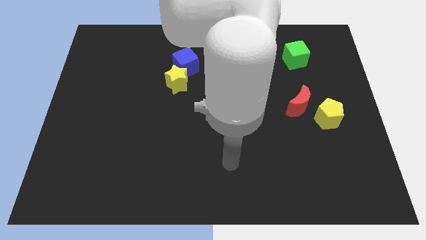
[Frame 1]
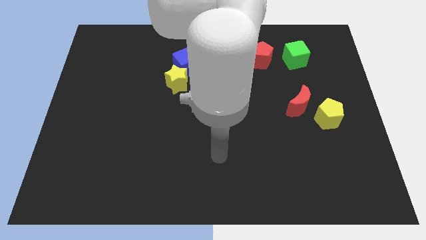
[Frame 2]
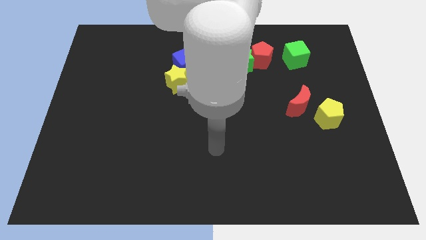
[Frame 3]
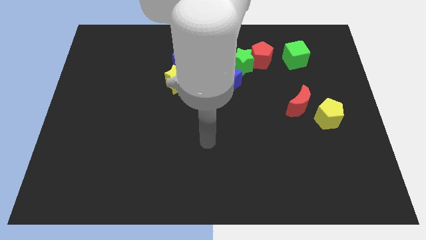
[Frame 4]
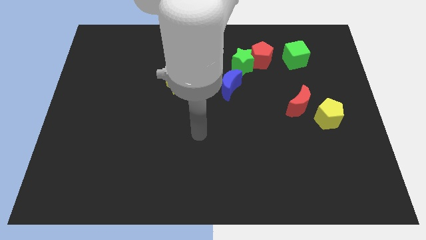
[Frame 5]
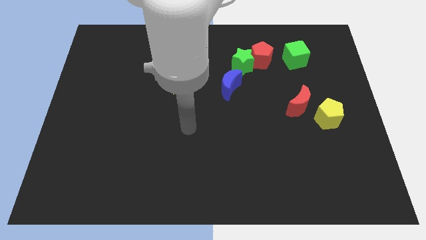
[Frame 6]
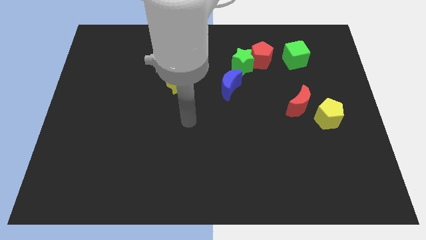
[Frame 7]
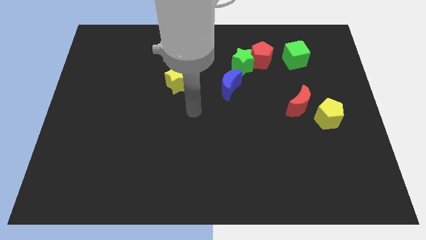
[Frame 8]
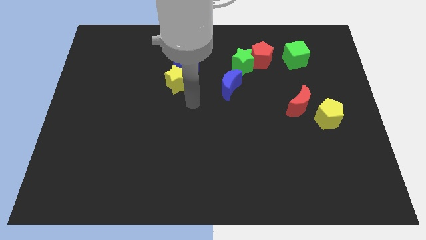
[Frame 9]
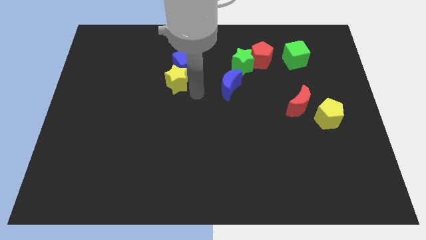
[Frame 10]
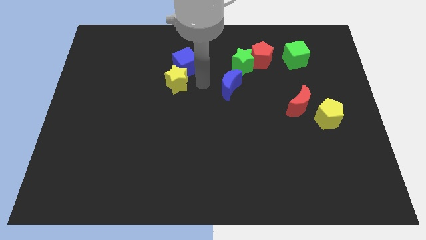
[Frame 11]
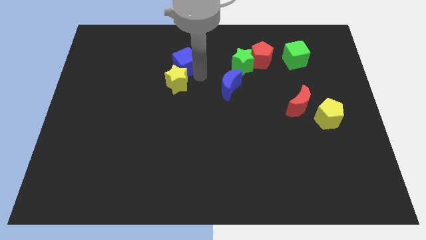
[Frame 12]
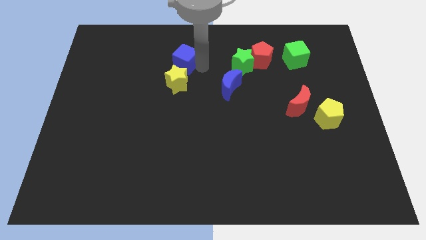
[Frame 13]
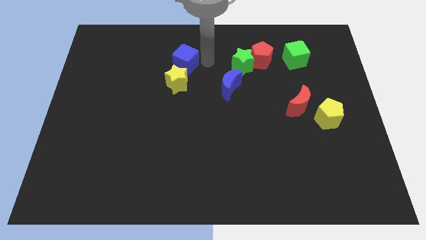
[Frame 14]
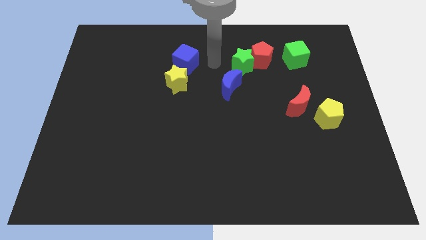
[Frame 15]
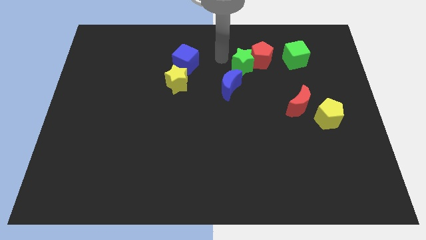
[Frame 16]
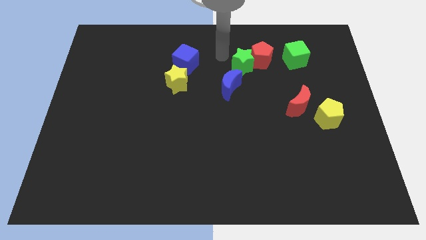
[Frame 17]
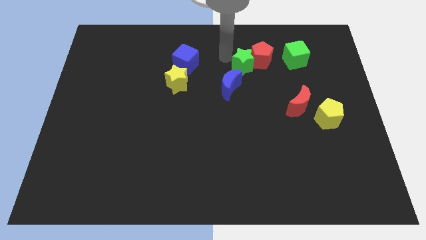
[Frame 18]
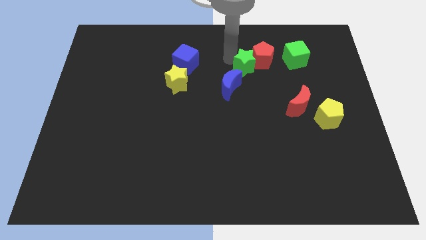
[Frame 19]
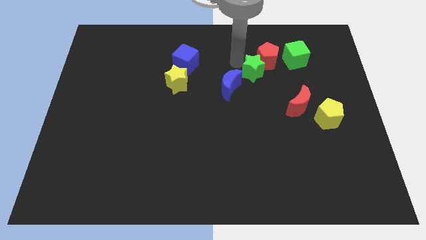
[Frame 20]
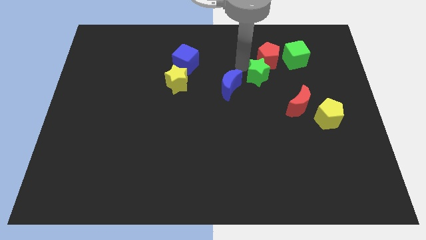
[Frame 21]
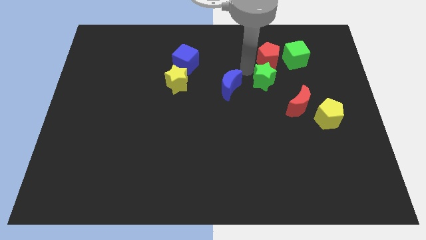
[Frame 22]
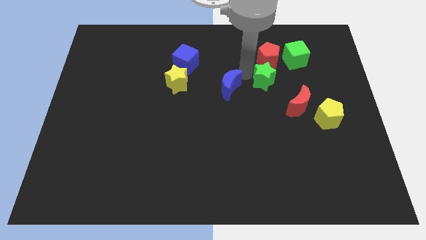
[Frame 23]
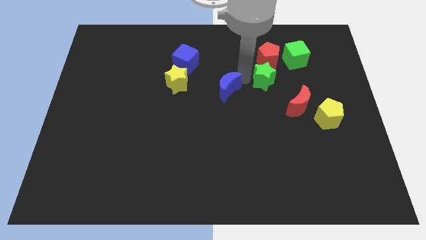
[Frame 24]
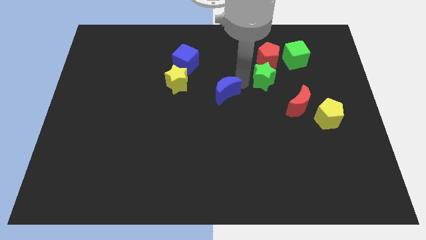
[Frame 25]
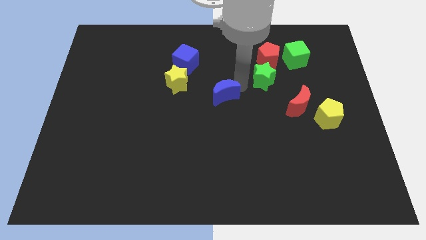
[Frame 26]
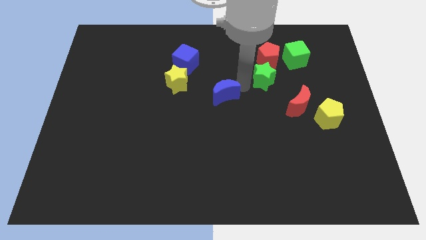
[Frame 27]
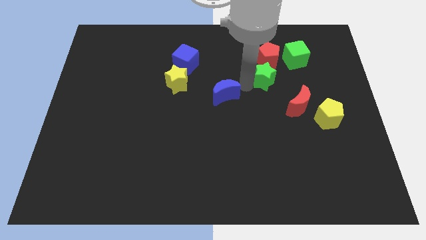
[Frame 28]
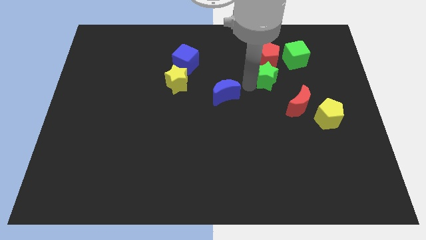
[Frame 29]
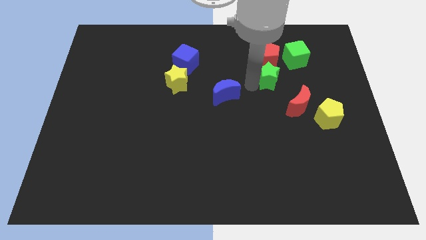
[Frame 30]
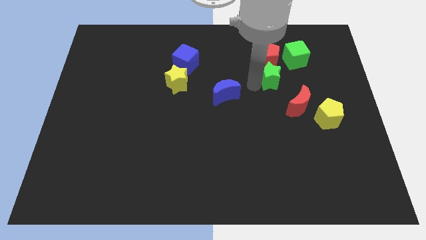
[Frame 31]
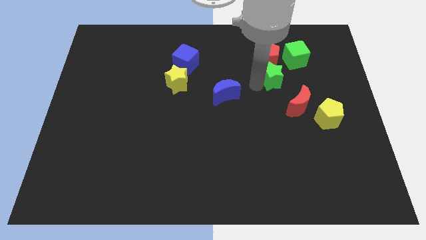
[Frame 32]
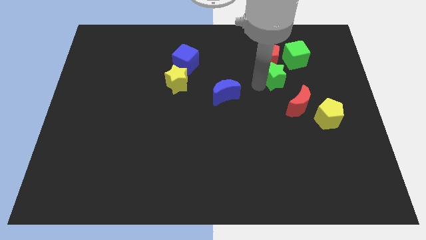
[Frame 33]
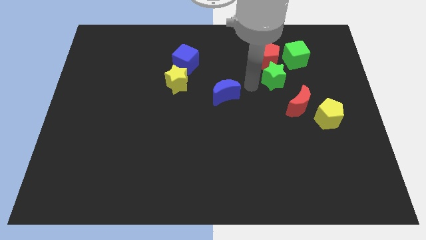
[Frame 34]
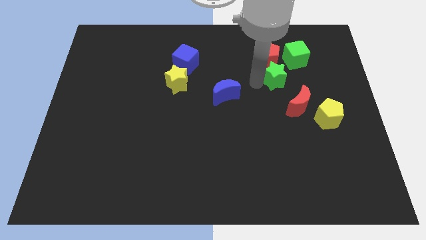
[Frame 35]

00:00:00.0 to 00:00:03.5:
slightly move the green star right

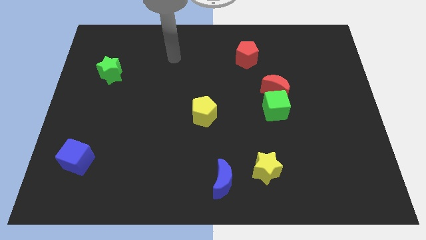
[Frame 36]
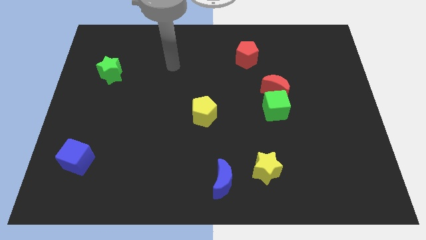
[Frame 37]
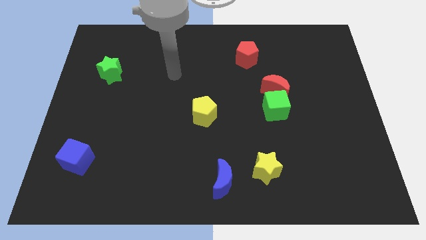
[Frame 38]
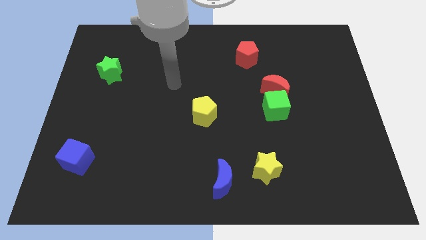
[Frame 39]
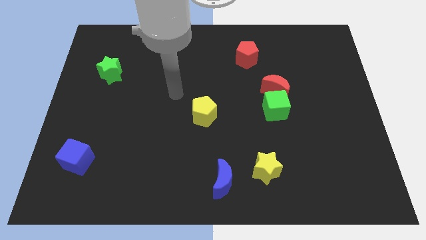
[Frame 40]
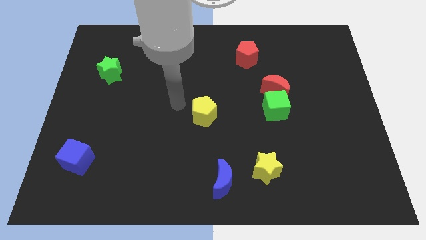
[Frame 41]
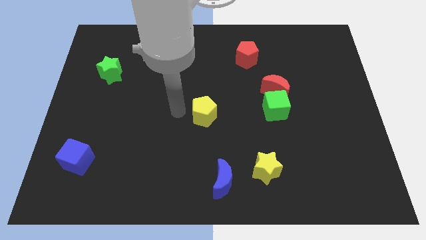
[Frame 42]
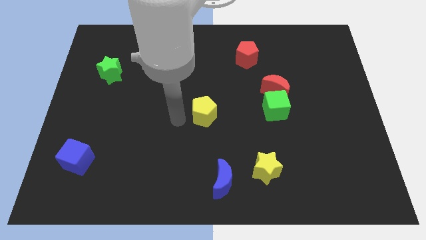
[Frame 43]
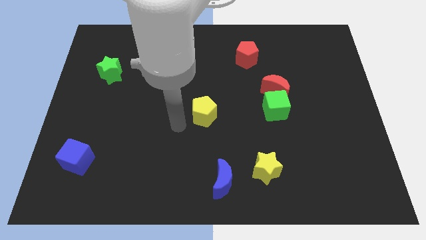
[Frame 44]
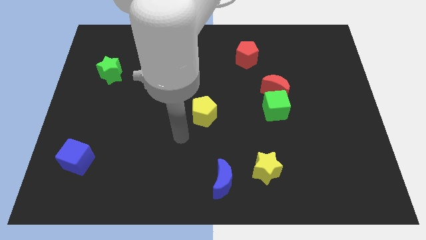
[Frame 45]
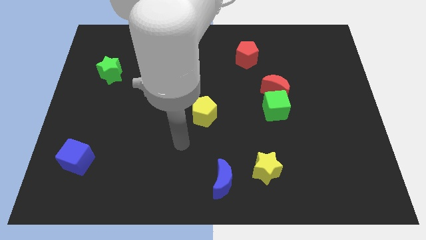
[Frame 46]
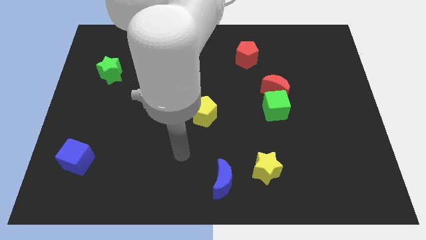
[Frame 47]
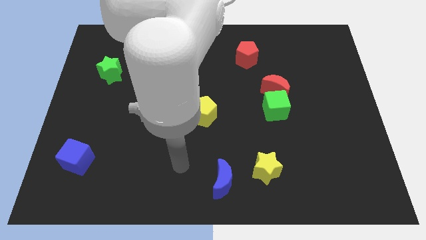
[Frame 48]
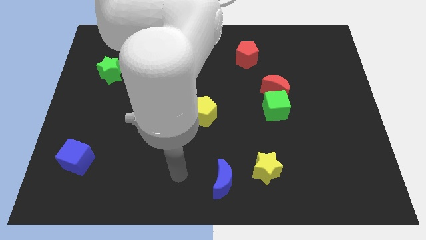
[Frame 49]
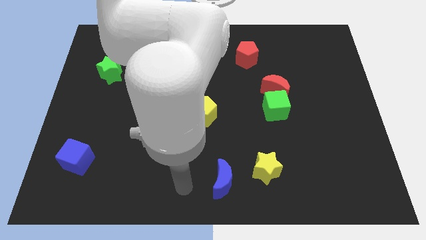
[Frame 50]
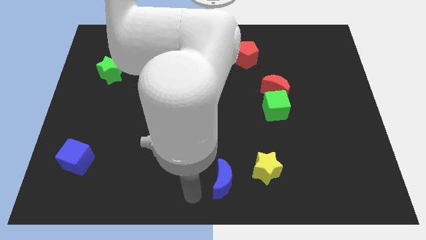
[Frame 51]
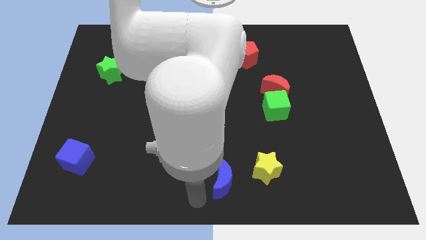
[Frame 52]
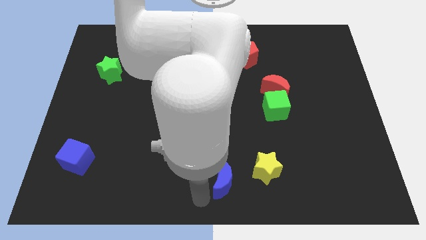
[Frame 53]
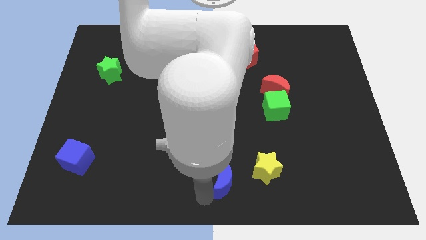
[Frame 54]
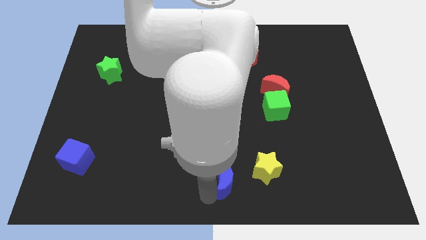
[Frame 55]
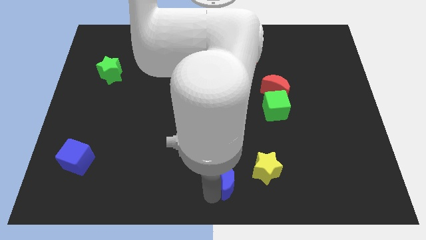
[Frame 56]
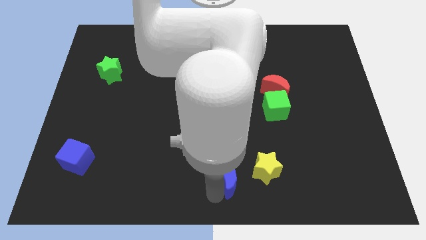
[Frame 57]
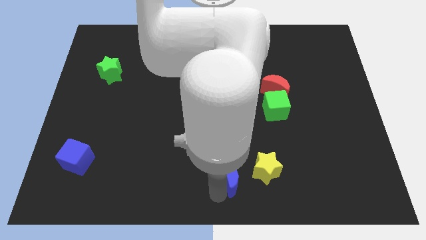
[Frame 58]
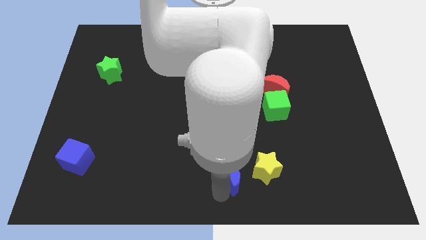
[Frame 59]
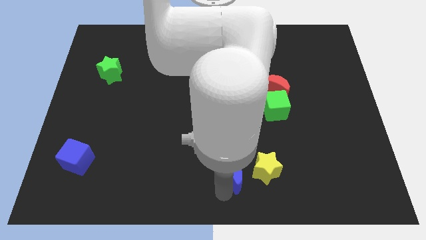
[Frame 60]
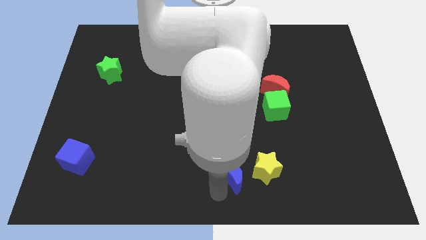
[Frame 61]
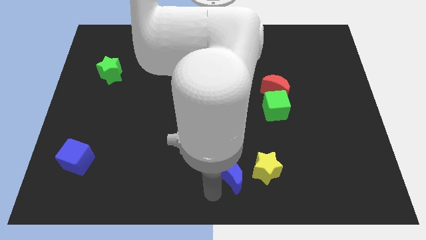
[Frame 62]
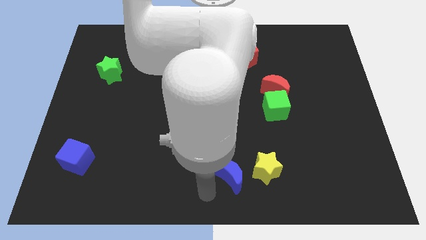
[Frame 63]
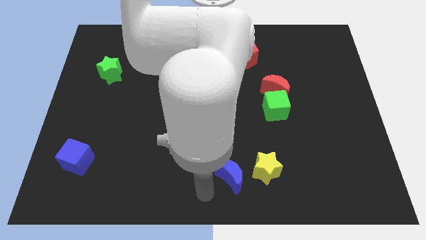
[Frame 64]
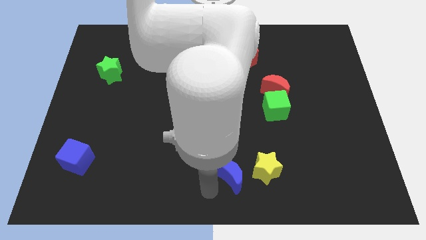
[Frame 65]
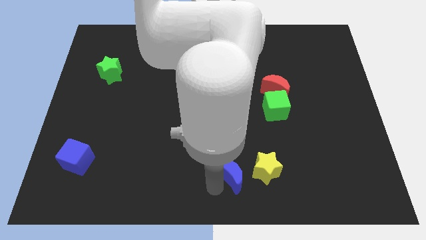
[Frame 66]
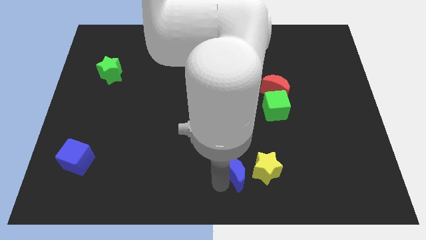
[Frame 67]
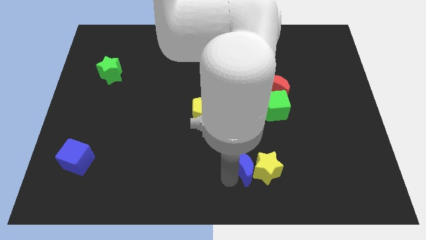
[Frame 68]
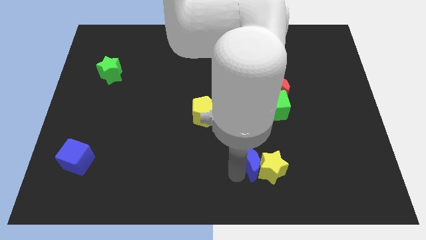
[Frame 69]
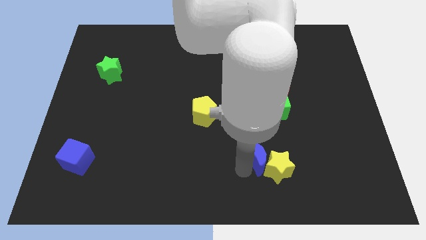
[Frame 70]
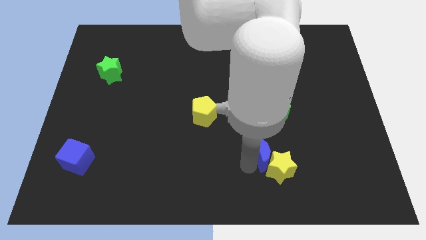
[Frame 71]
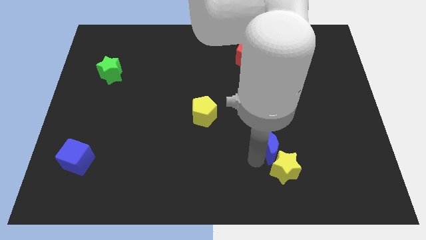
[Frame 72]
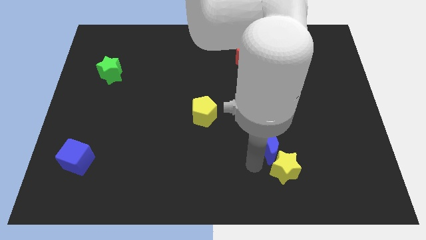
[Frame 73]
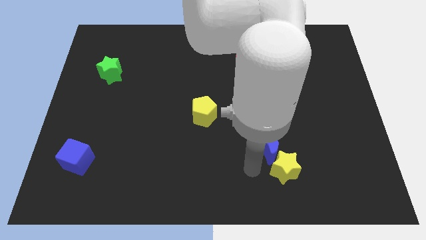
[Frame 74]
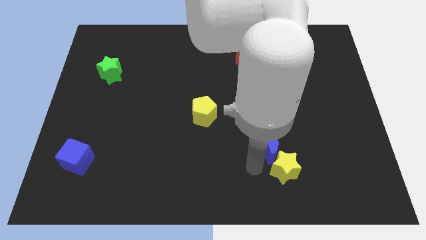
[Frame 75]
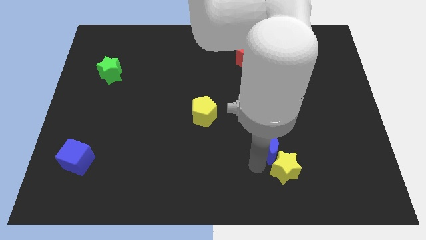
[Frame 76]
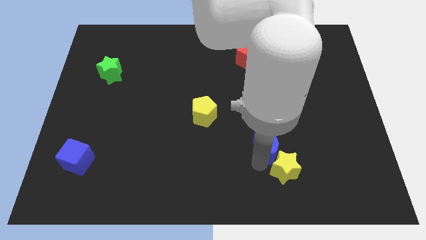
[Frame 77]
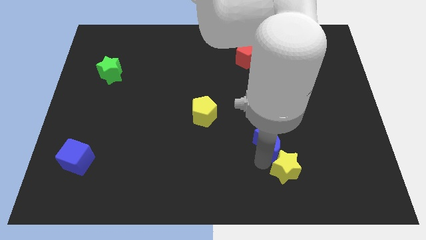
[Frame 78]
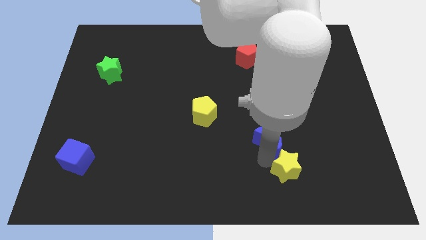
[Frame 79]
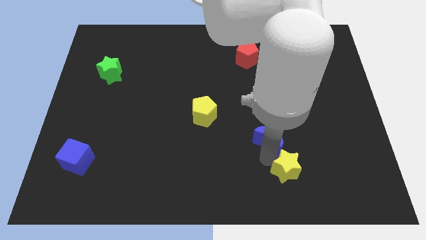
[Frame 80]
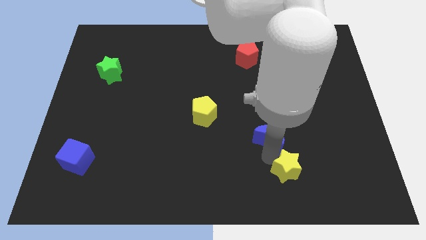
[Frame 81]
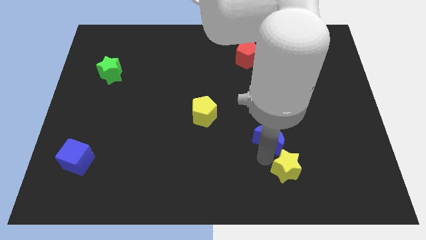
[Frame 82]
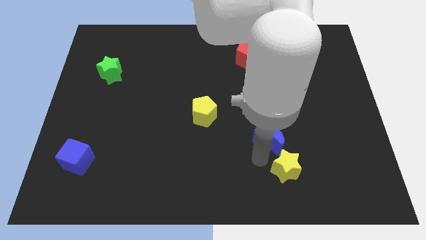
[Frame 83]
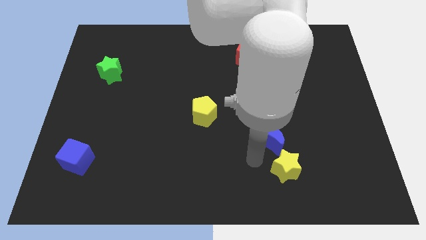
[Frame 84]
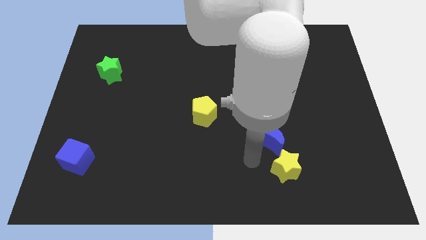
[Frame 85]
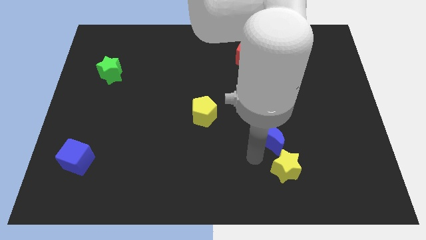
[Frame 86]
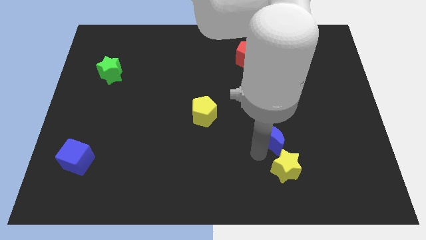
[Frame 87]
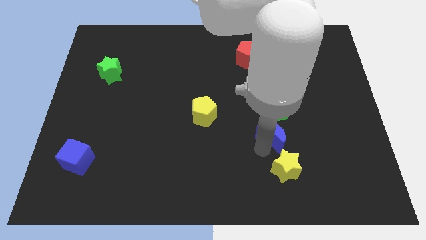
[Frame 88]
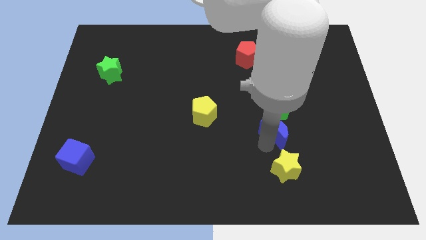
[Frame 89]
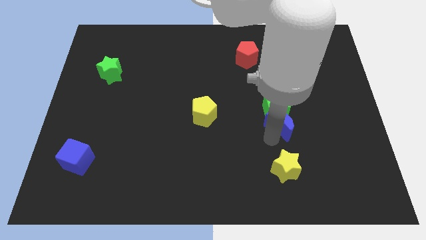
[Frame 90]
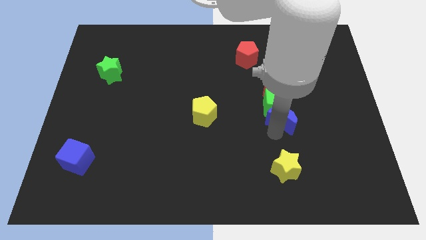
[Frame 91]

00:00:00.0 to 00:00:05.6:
push the blue moon upwards and to the right
